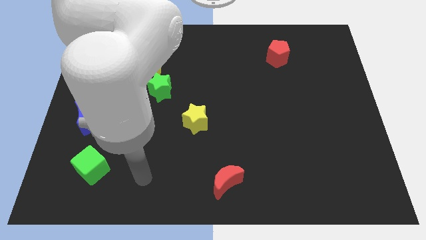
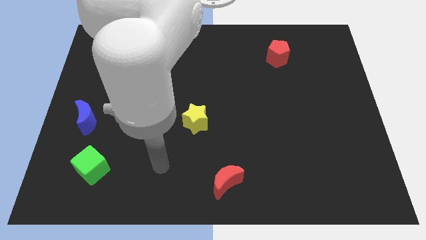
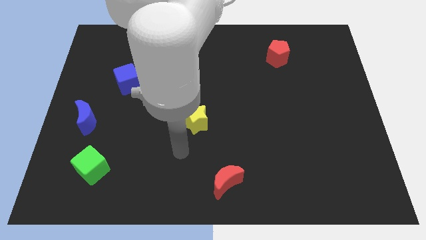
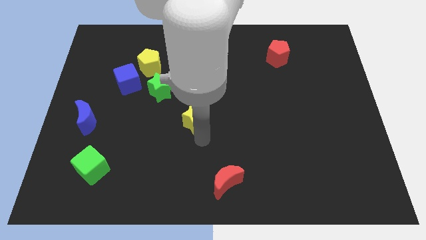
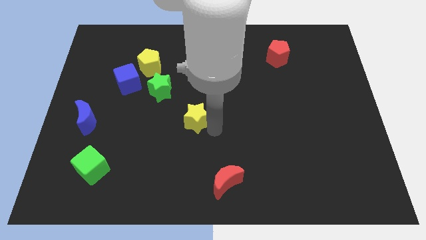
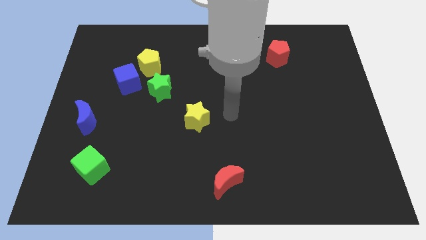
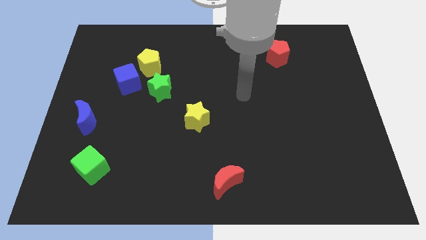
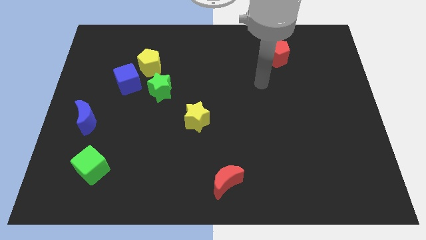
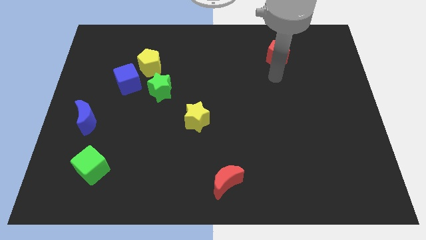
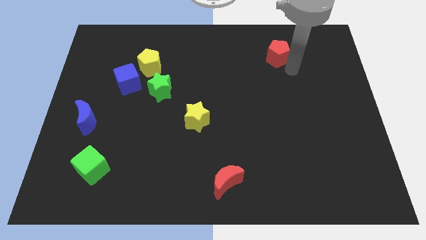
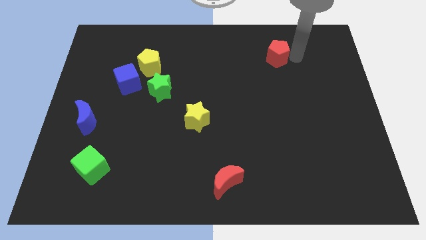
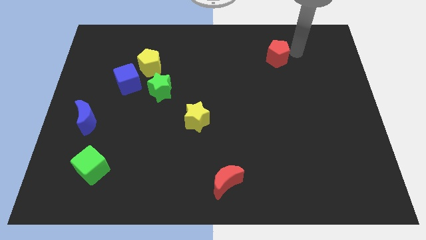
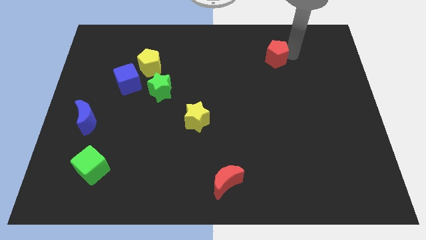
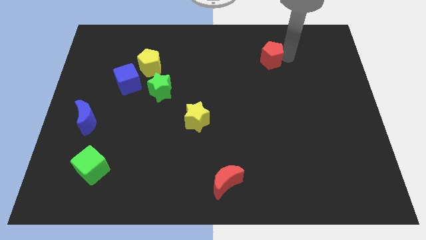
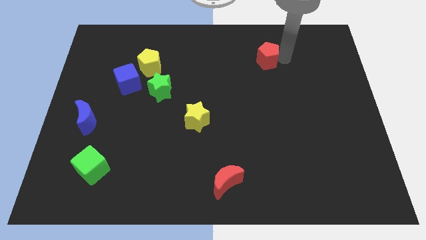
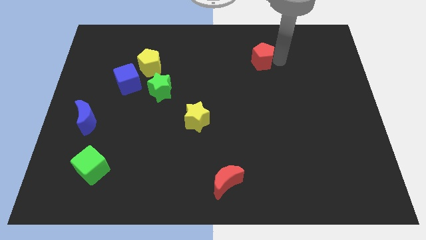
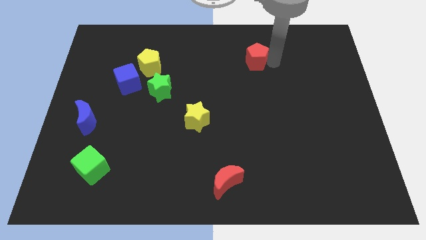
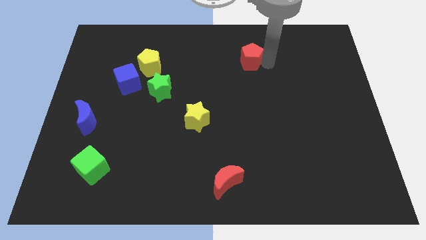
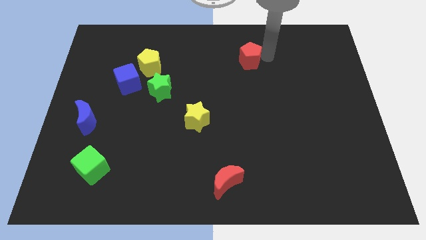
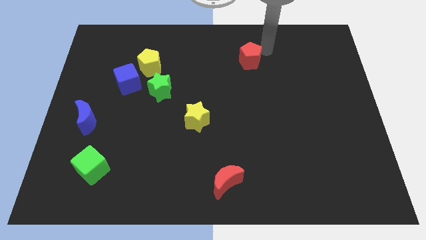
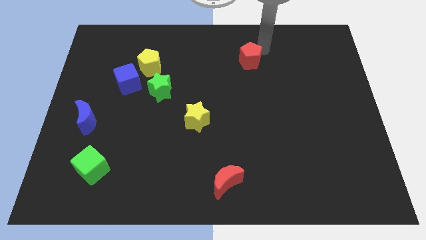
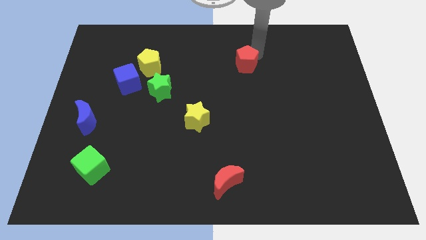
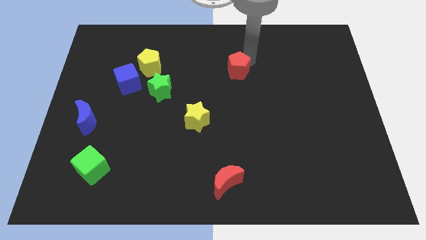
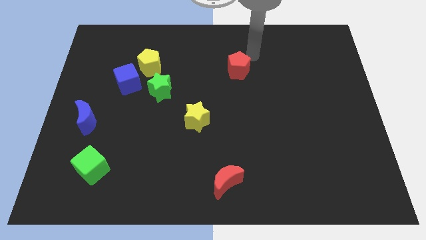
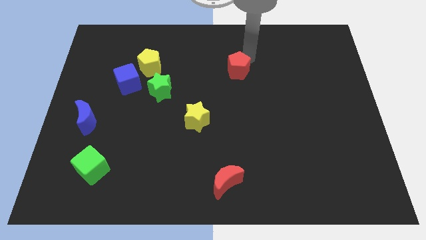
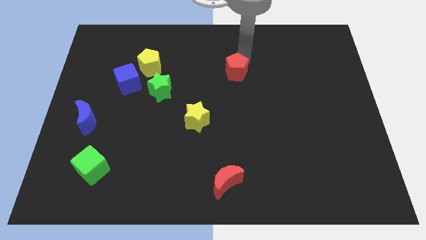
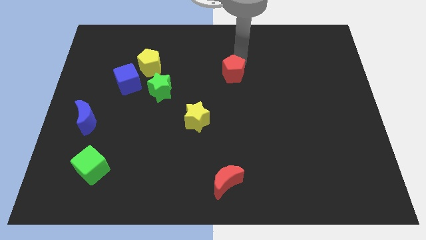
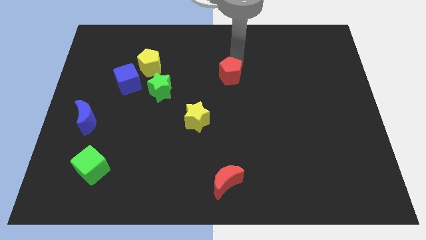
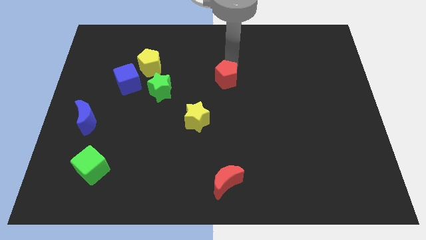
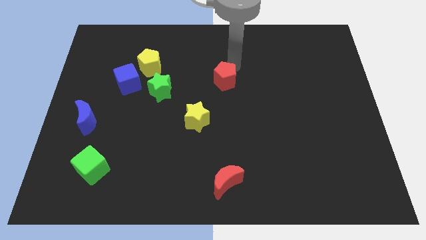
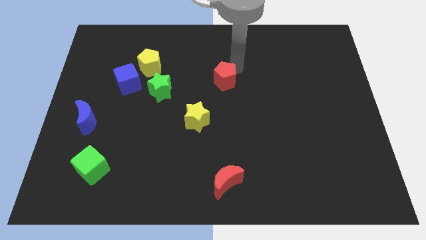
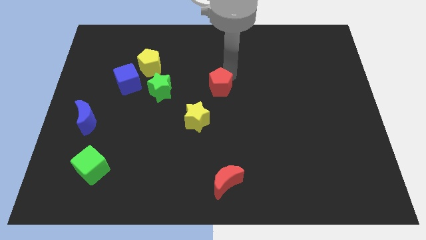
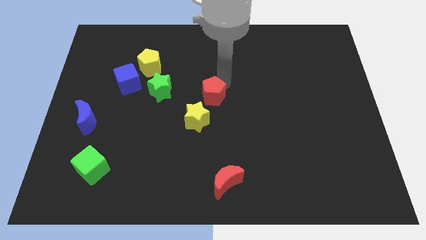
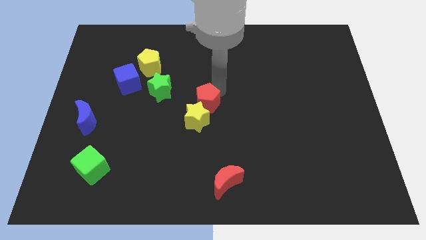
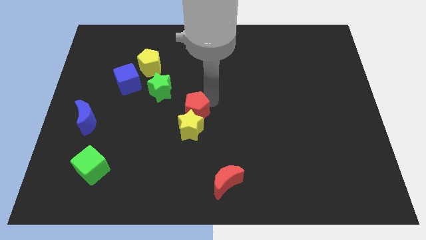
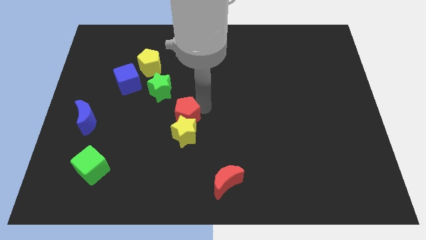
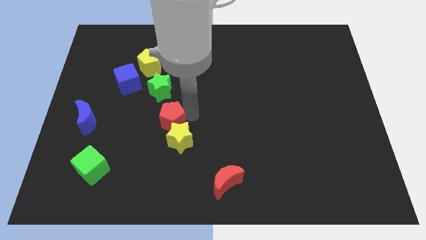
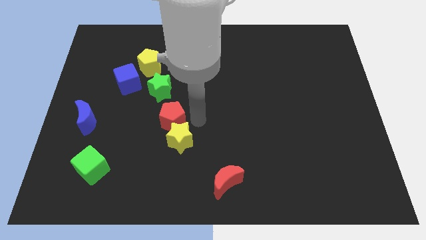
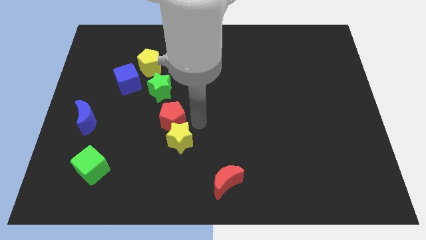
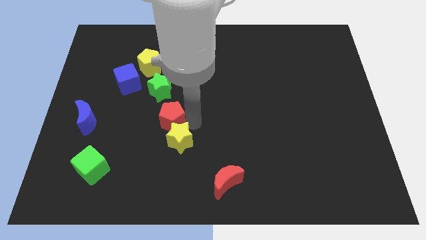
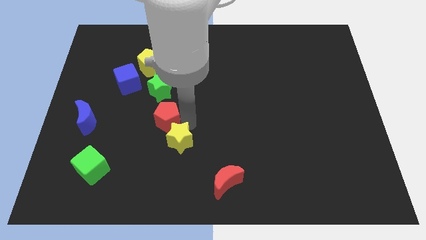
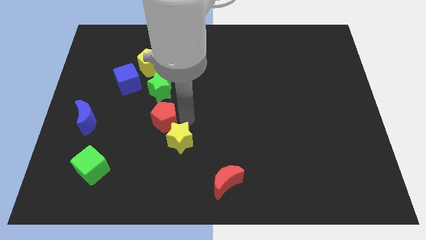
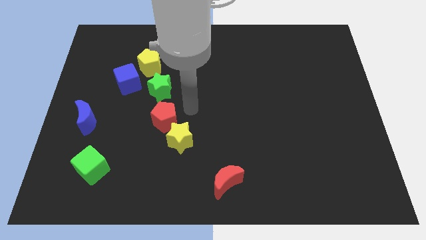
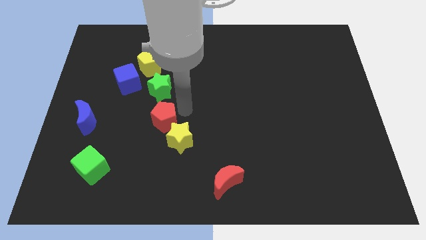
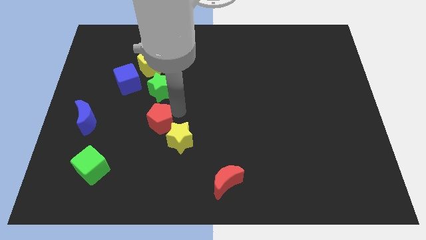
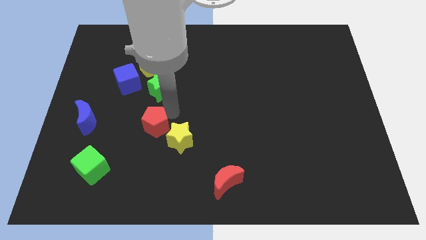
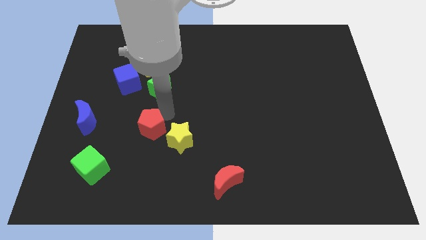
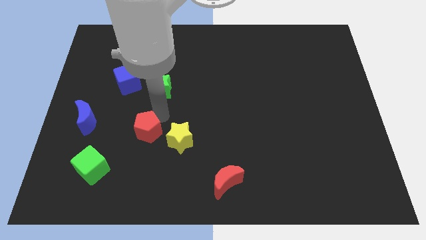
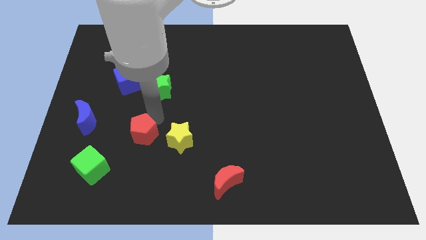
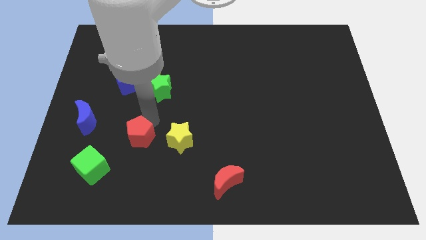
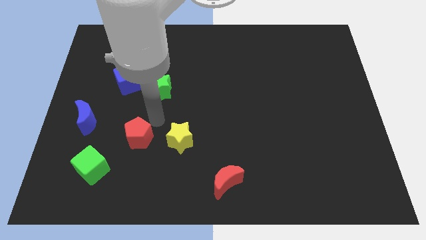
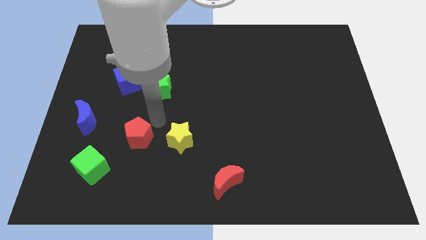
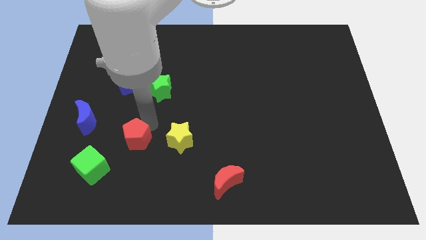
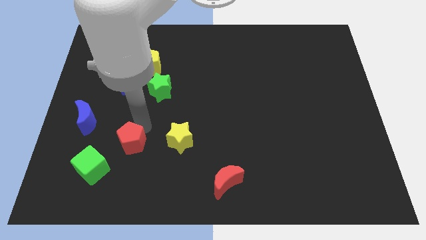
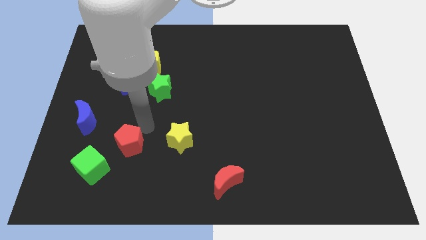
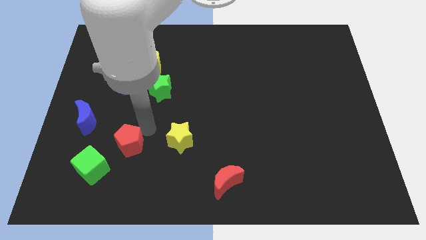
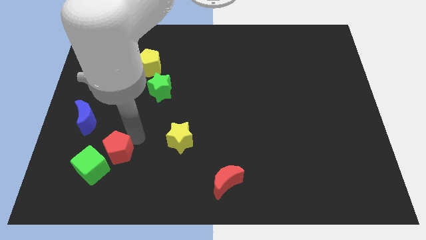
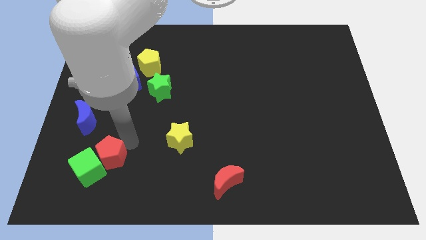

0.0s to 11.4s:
push the red pentagon next to the green cube

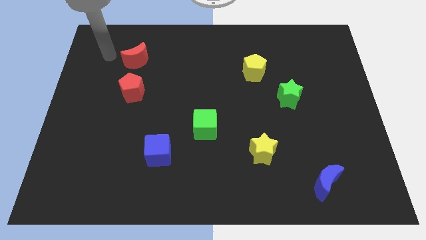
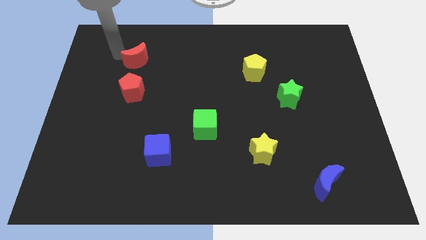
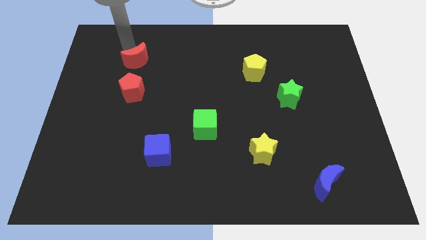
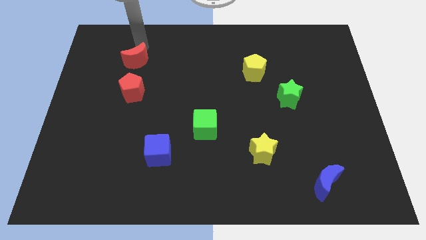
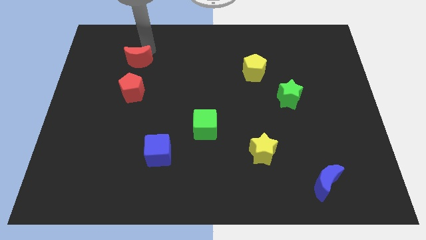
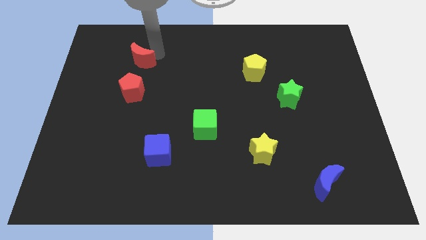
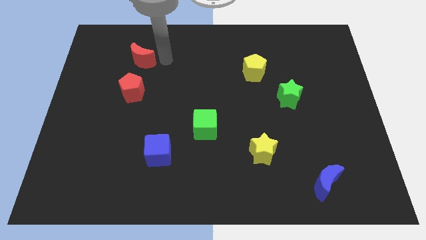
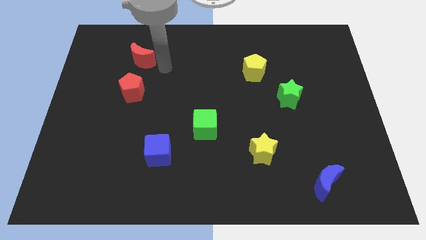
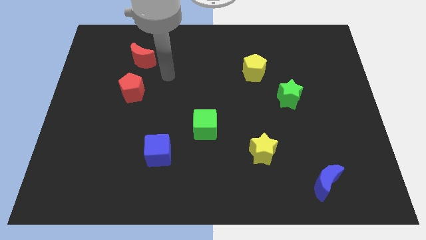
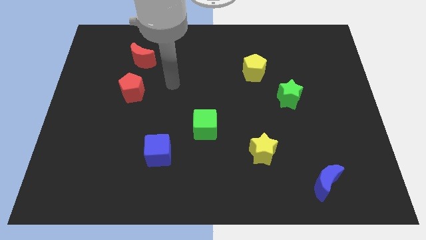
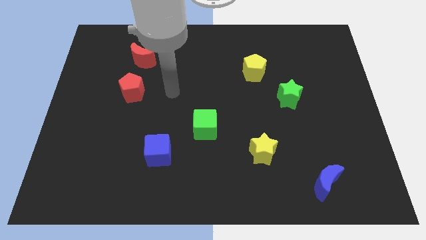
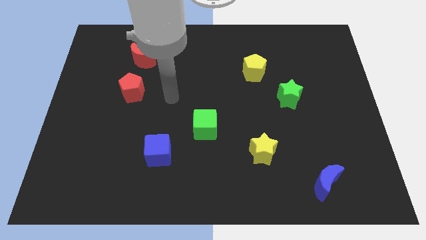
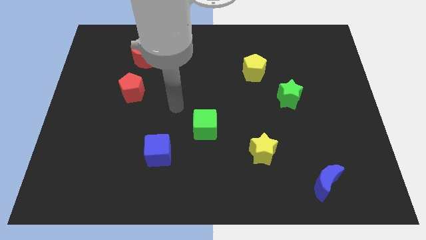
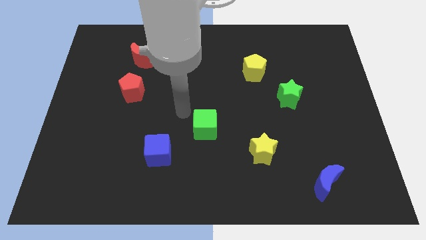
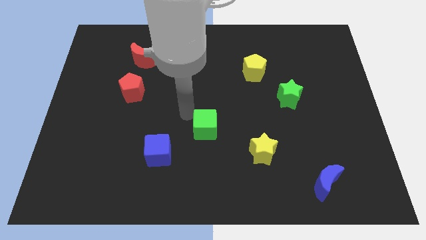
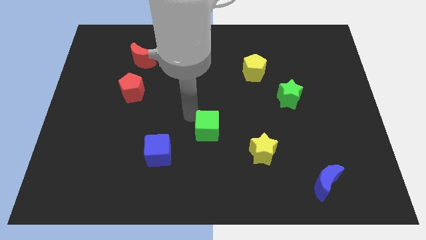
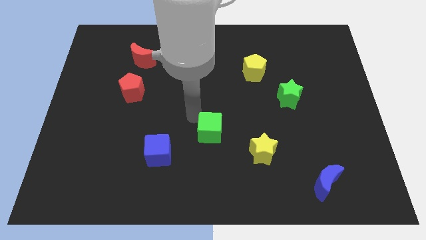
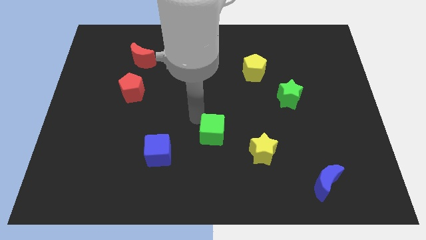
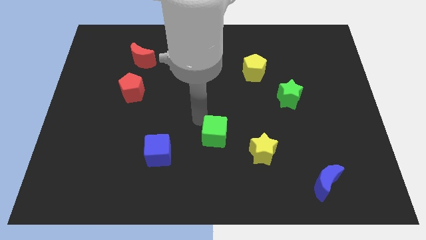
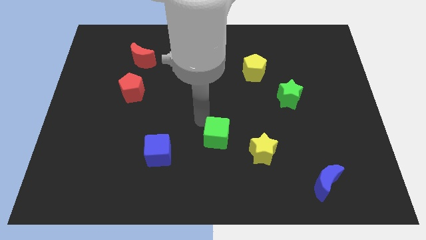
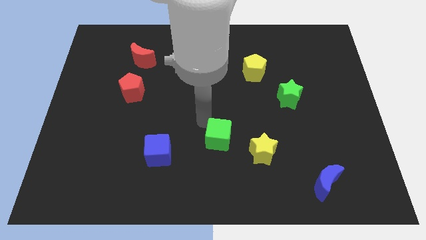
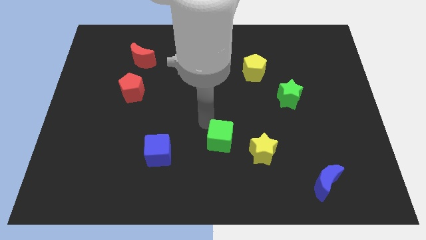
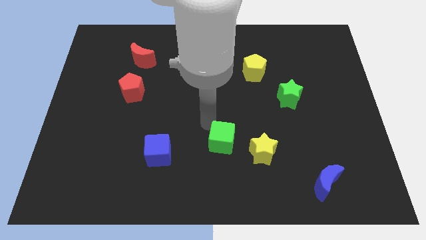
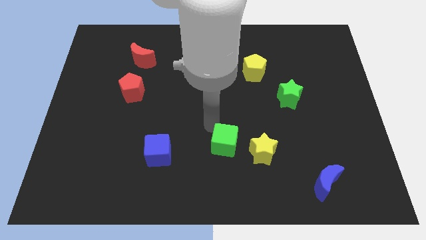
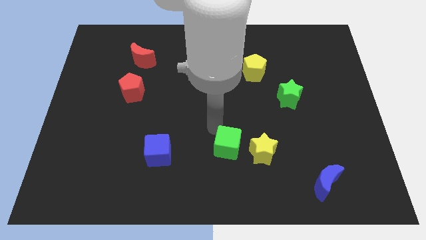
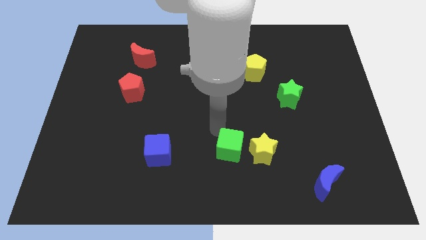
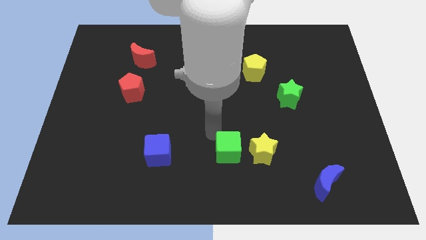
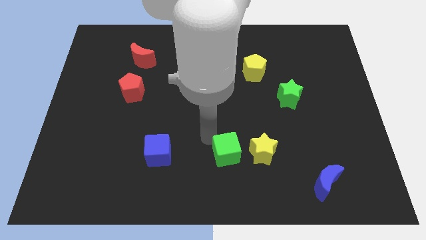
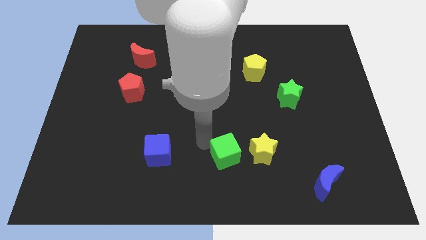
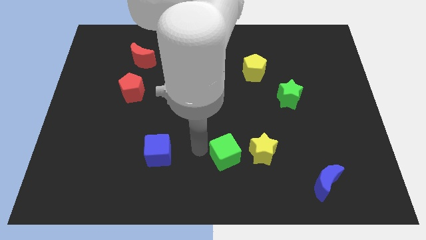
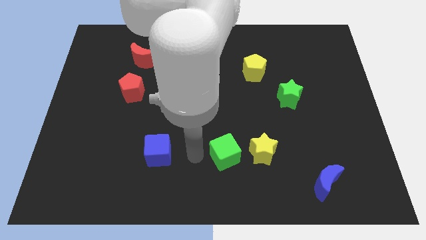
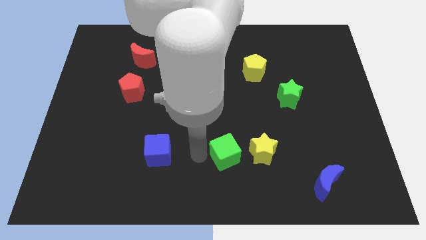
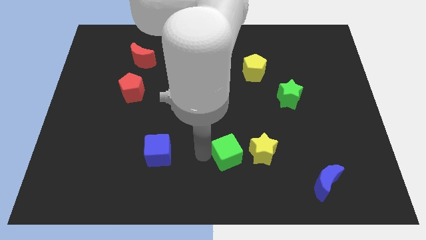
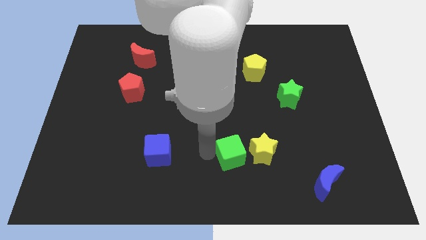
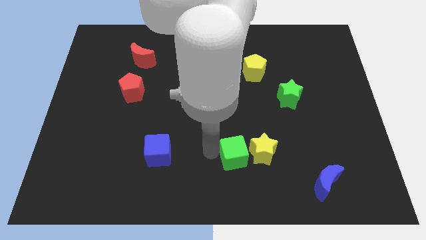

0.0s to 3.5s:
slide the green cube towards the yellow star
